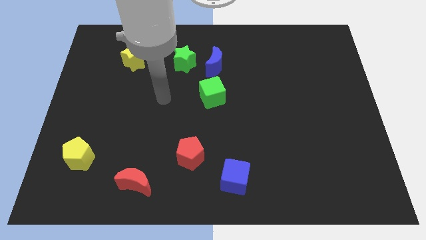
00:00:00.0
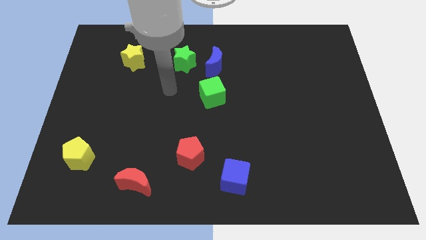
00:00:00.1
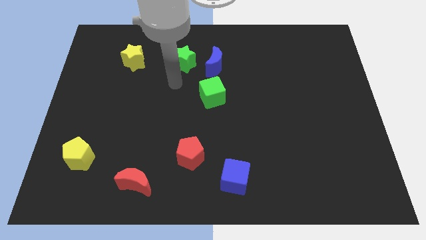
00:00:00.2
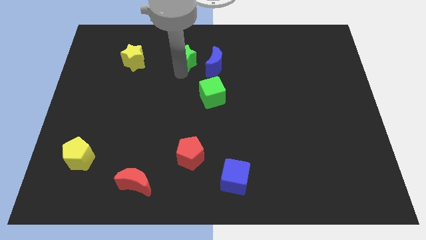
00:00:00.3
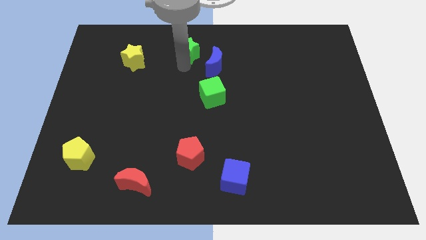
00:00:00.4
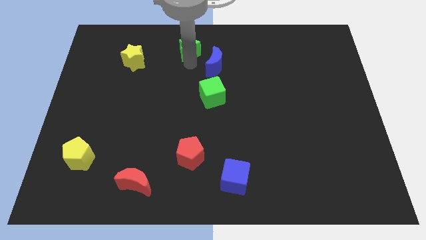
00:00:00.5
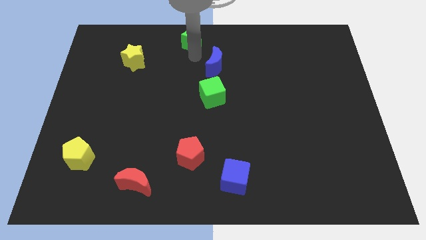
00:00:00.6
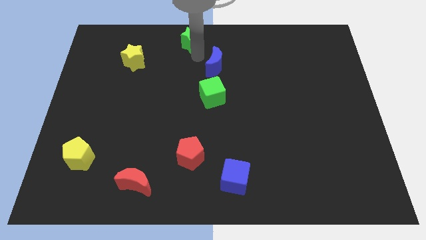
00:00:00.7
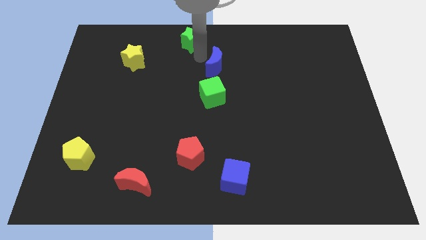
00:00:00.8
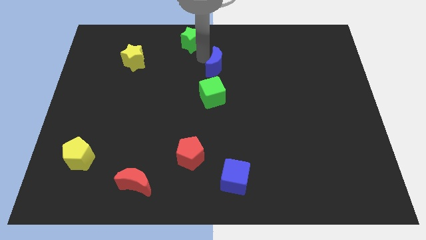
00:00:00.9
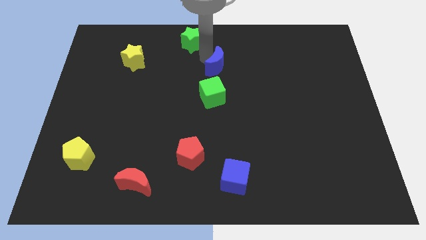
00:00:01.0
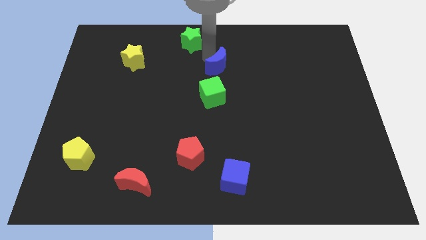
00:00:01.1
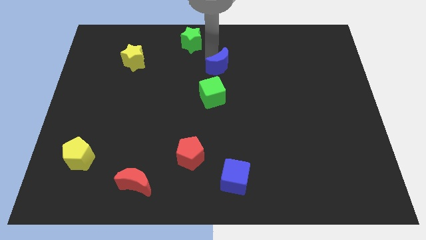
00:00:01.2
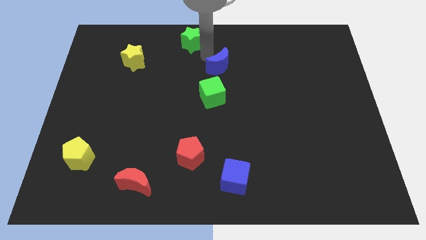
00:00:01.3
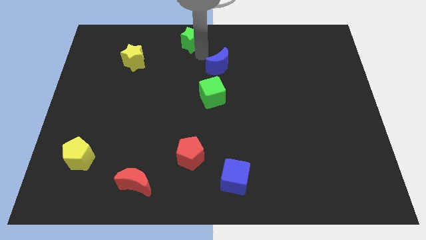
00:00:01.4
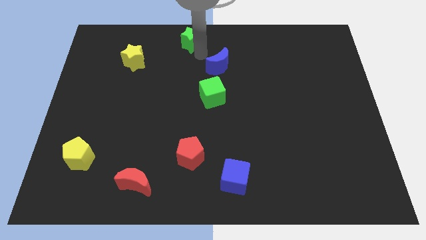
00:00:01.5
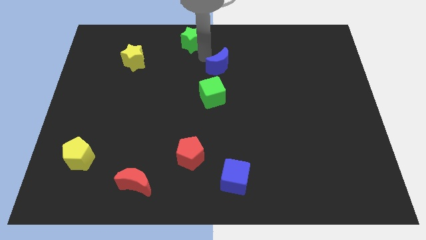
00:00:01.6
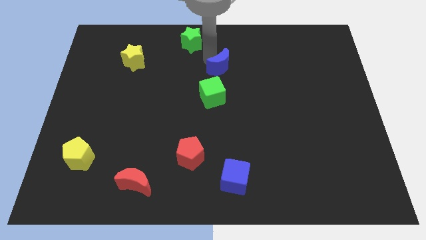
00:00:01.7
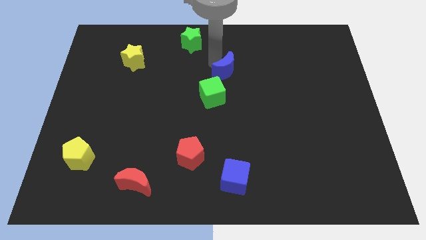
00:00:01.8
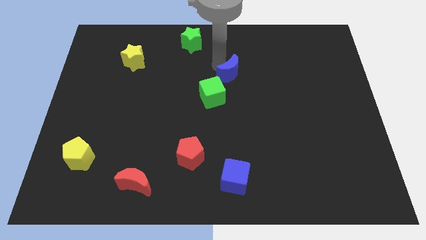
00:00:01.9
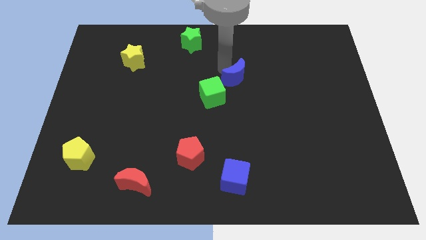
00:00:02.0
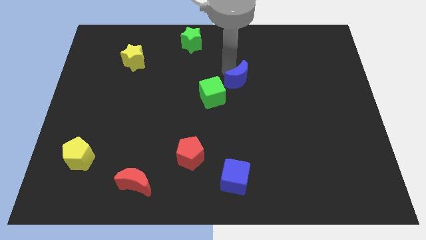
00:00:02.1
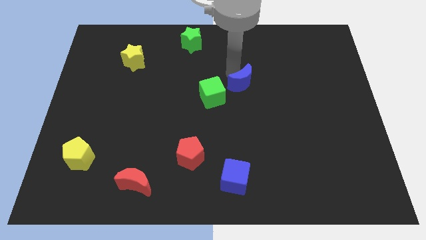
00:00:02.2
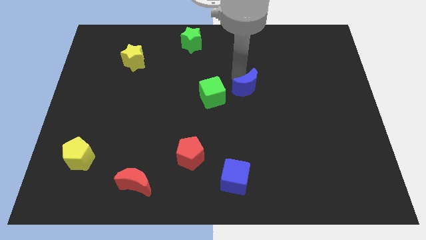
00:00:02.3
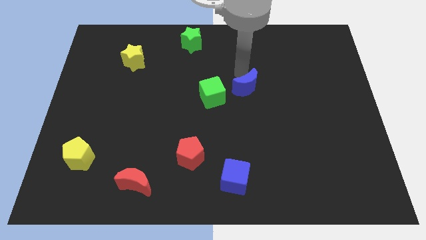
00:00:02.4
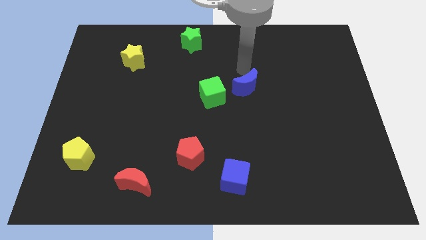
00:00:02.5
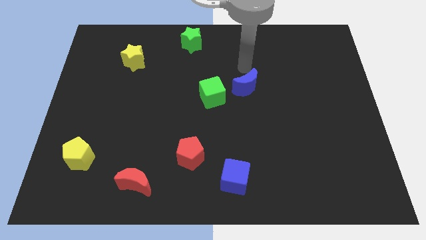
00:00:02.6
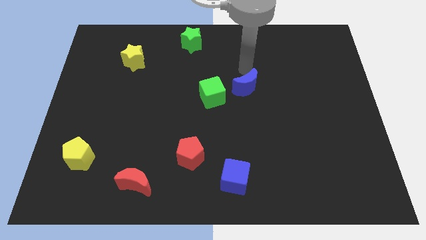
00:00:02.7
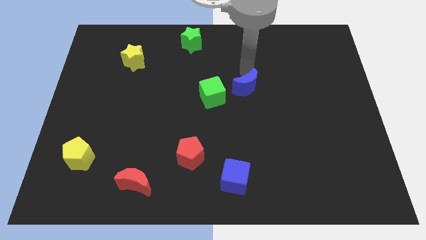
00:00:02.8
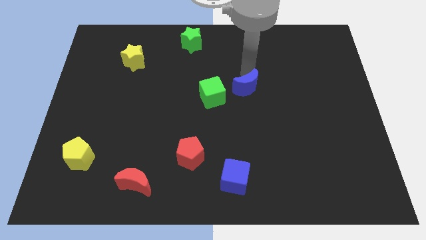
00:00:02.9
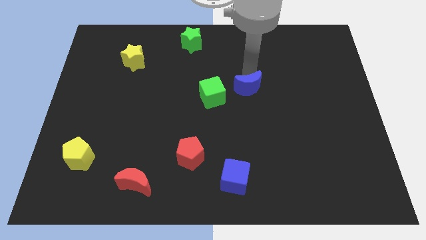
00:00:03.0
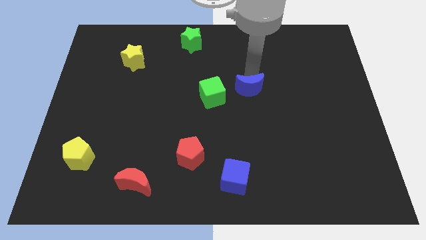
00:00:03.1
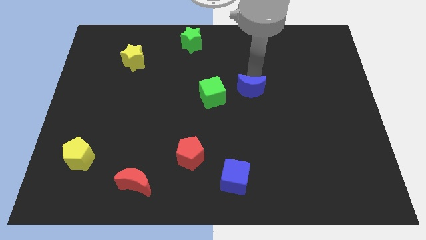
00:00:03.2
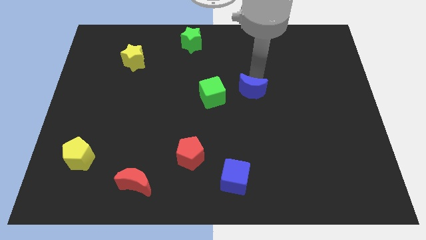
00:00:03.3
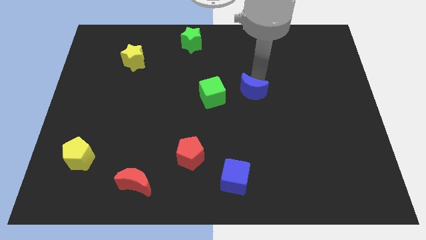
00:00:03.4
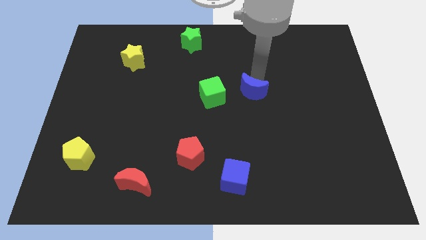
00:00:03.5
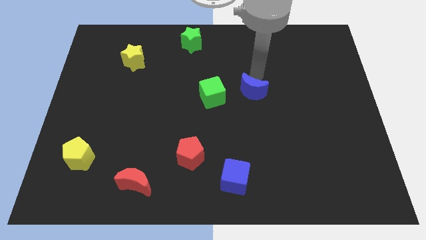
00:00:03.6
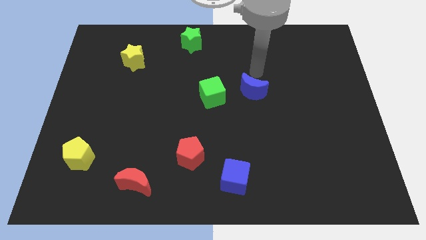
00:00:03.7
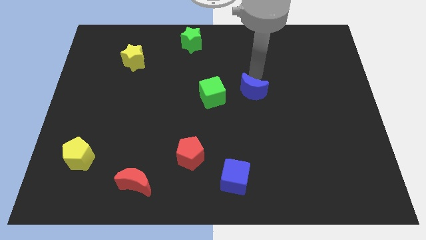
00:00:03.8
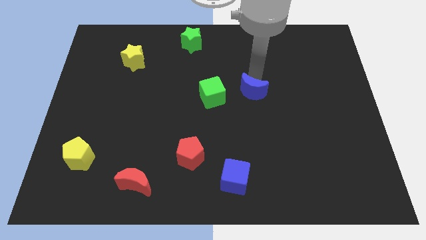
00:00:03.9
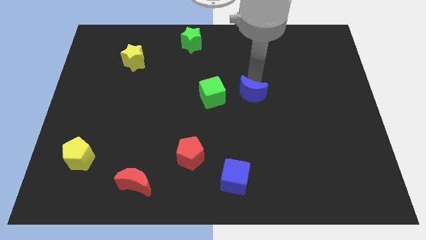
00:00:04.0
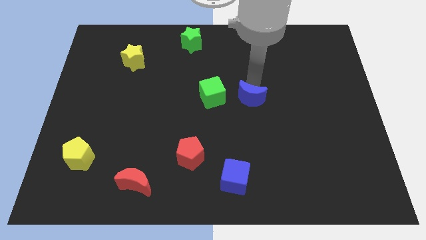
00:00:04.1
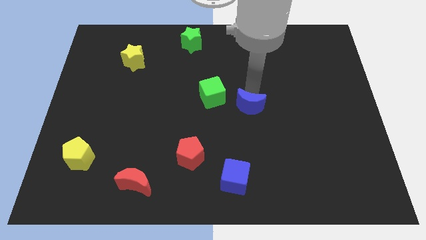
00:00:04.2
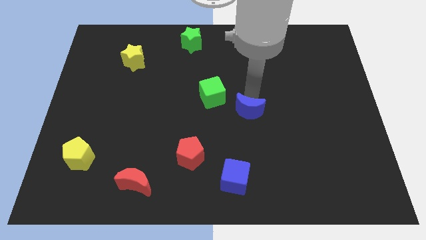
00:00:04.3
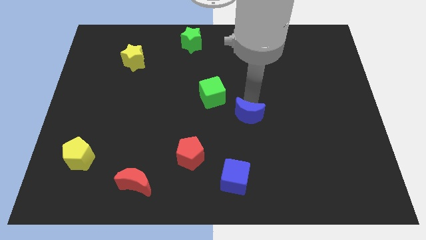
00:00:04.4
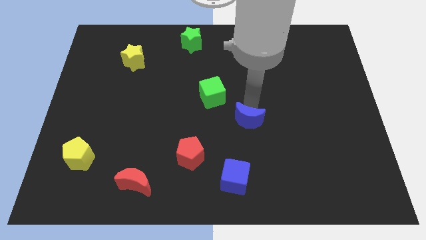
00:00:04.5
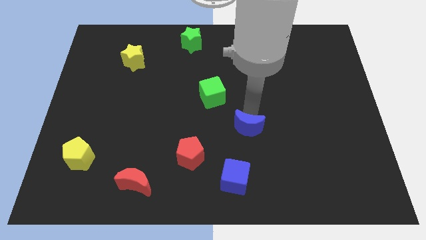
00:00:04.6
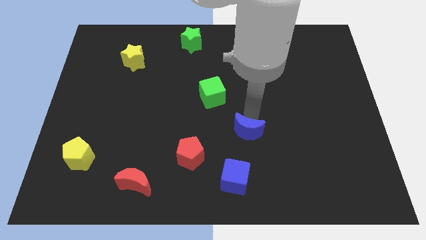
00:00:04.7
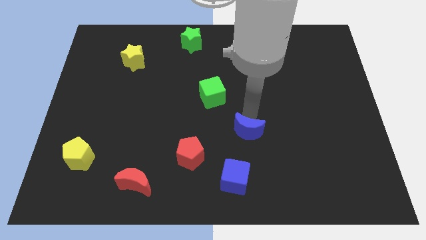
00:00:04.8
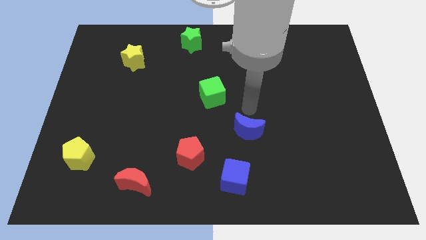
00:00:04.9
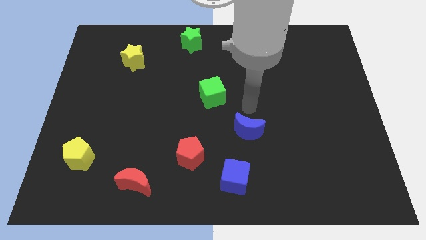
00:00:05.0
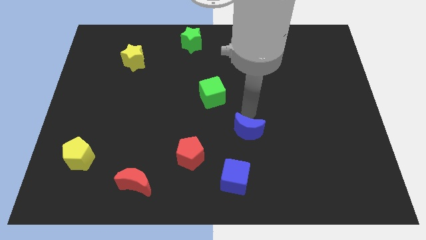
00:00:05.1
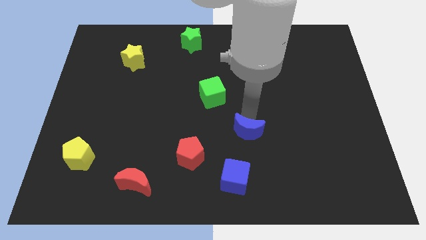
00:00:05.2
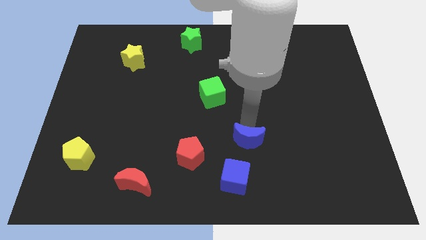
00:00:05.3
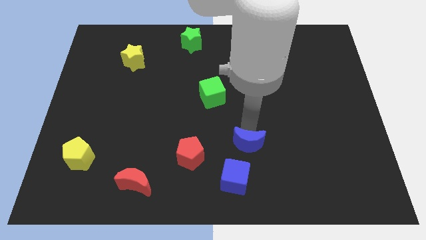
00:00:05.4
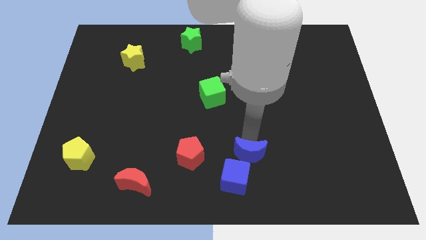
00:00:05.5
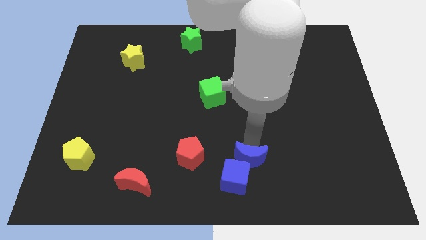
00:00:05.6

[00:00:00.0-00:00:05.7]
push the blue moon towards the blue cube

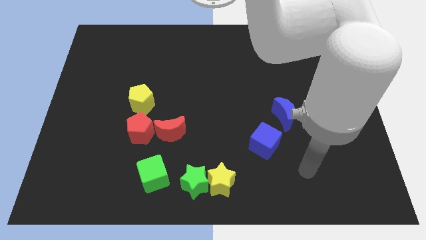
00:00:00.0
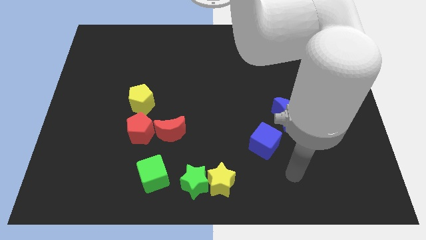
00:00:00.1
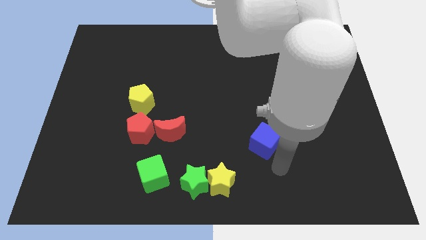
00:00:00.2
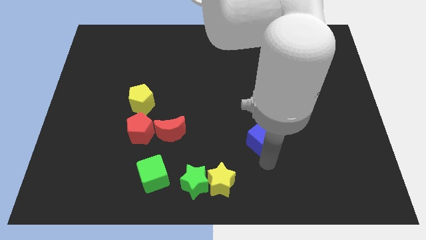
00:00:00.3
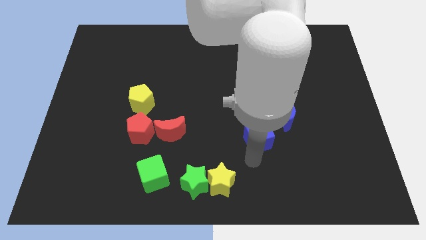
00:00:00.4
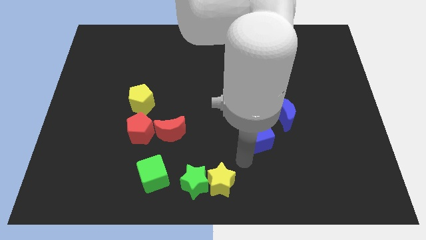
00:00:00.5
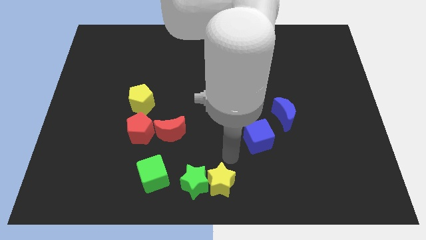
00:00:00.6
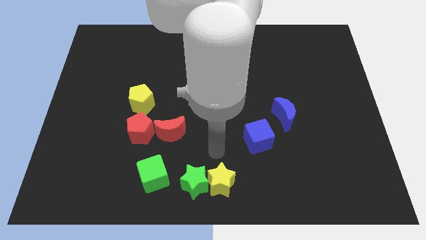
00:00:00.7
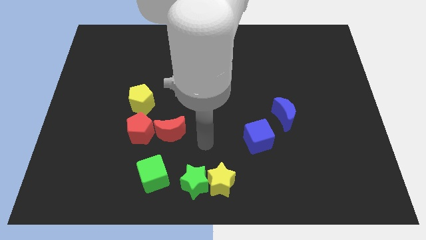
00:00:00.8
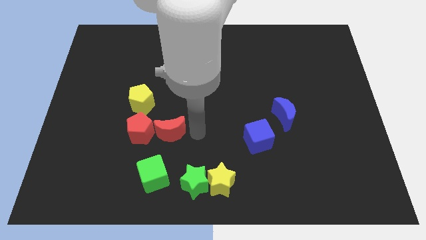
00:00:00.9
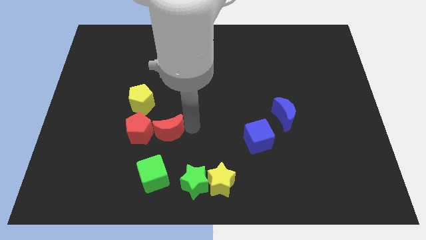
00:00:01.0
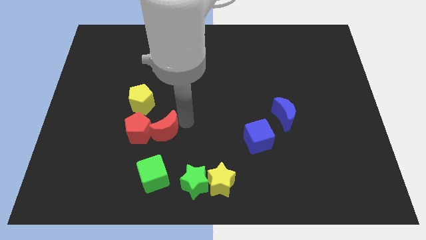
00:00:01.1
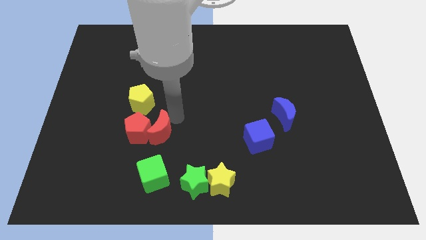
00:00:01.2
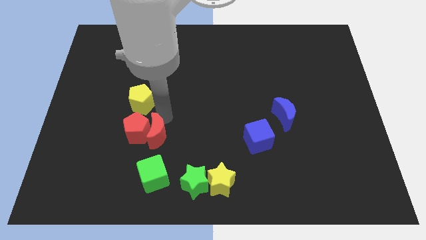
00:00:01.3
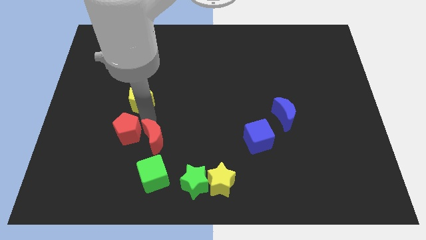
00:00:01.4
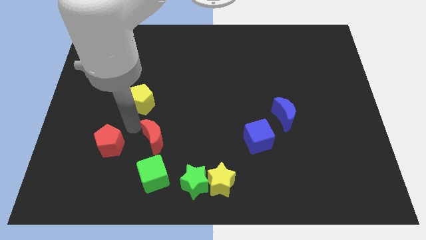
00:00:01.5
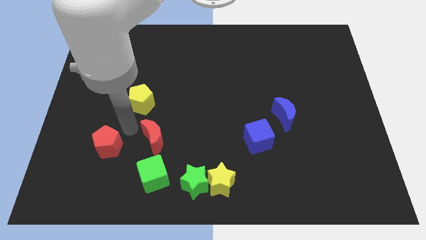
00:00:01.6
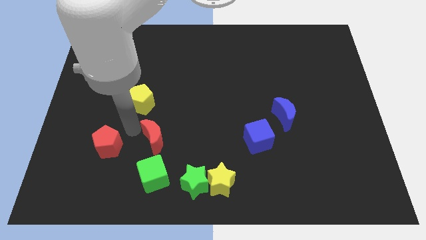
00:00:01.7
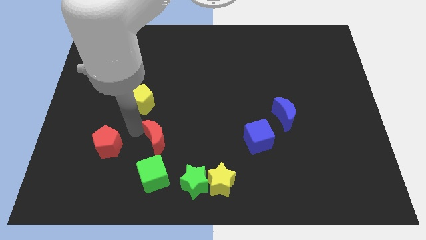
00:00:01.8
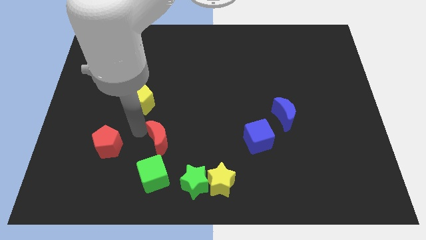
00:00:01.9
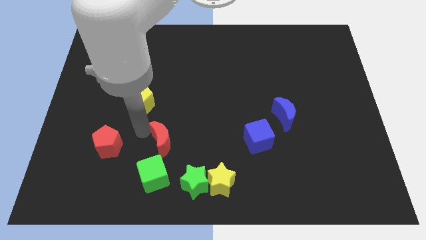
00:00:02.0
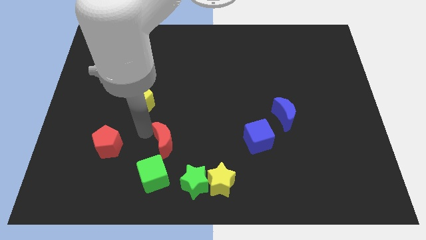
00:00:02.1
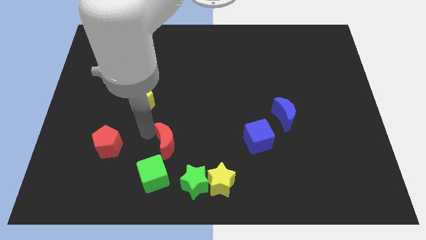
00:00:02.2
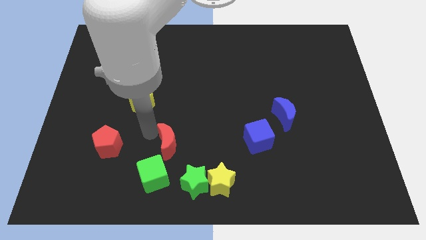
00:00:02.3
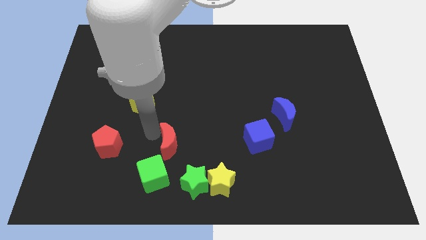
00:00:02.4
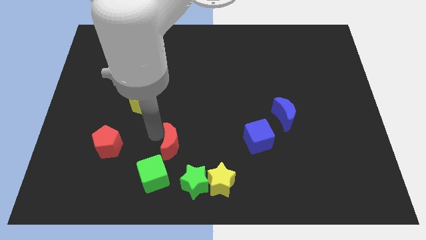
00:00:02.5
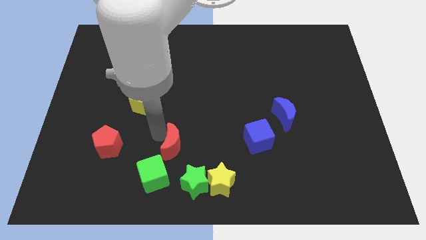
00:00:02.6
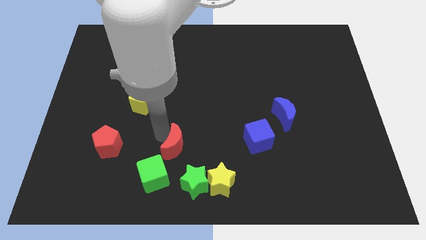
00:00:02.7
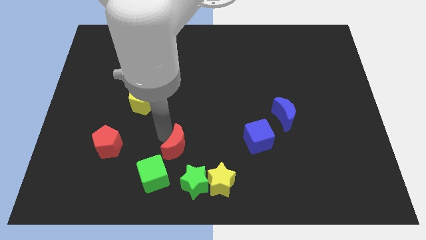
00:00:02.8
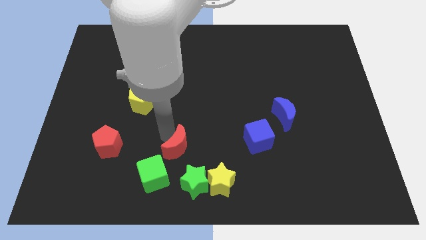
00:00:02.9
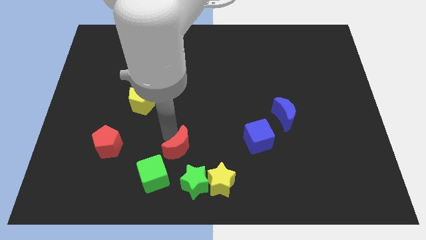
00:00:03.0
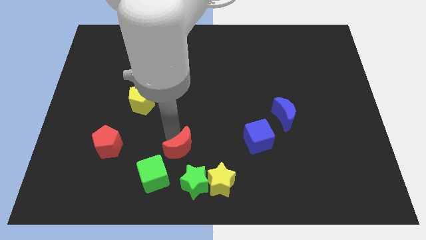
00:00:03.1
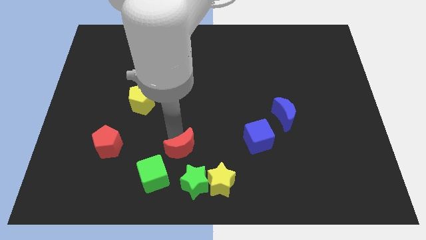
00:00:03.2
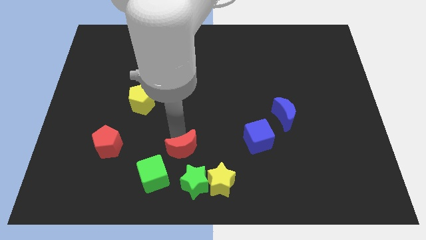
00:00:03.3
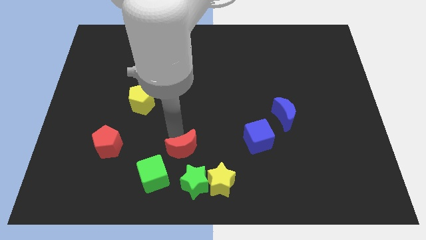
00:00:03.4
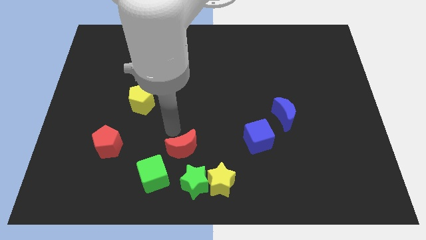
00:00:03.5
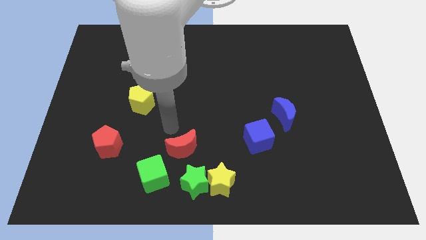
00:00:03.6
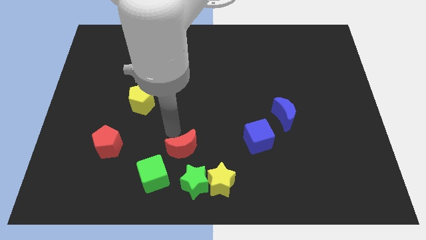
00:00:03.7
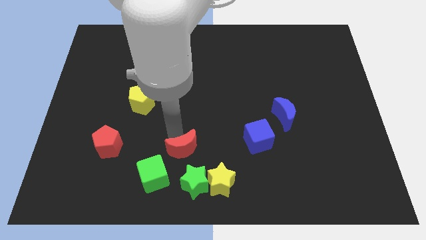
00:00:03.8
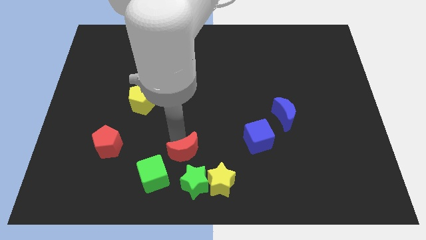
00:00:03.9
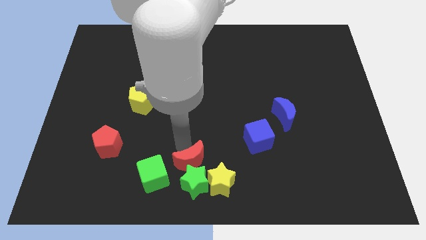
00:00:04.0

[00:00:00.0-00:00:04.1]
slide the red moon close to the green star
